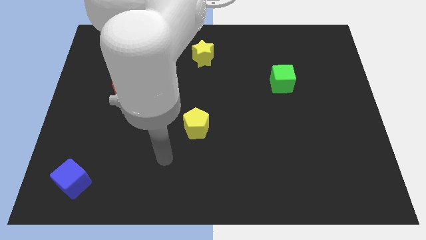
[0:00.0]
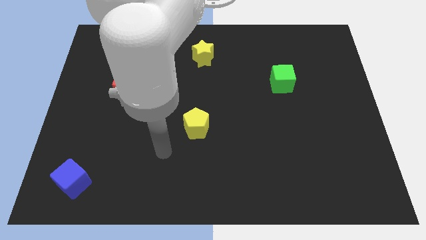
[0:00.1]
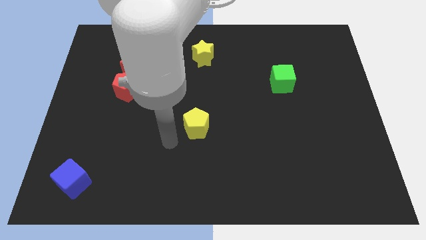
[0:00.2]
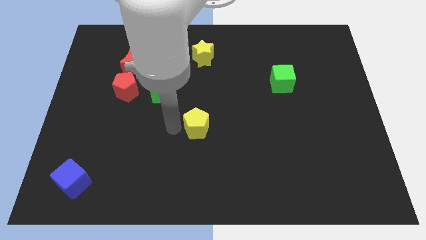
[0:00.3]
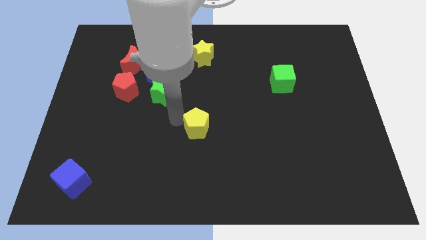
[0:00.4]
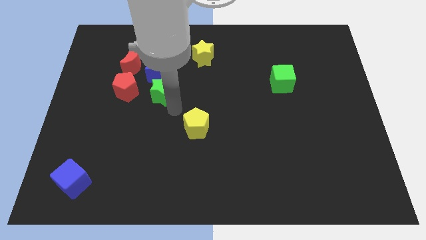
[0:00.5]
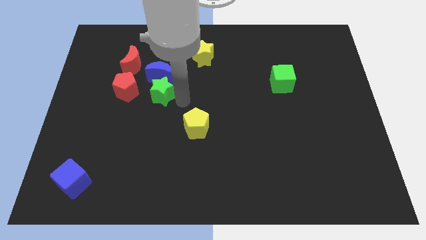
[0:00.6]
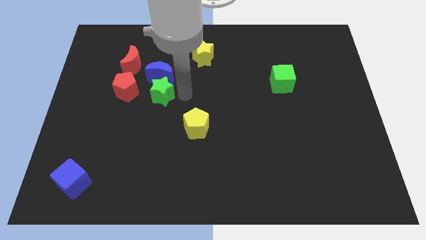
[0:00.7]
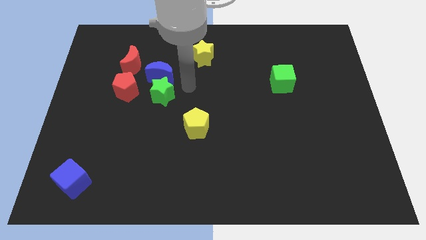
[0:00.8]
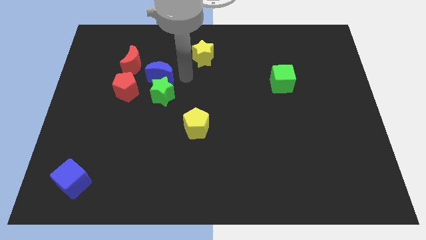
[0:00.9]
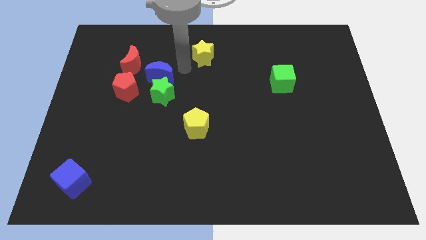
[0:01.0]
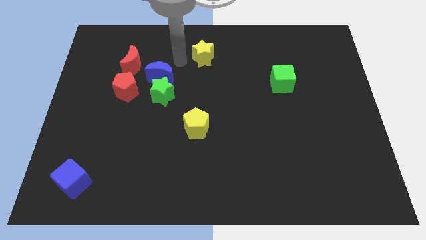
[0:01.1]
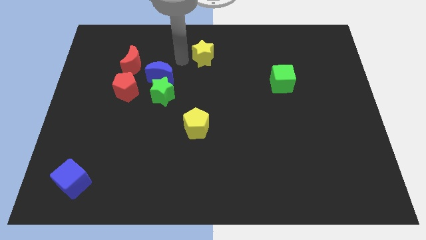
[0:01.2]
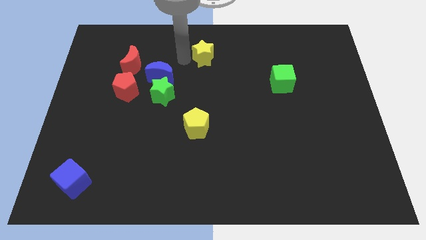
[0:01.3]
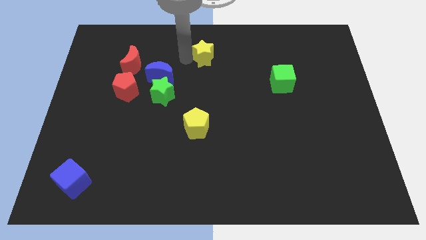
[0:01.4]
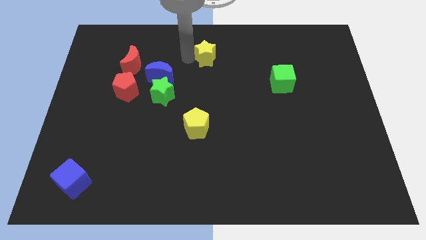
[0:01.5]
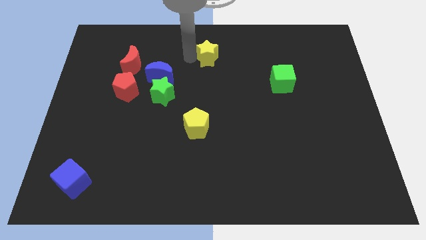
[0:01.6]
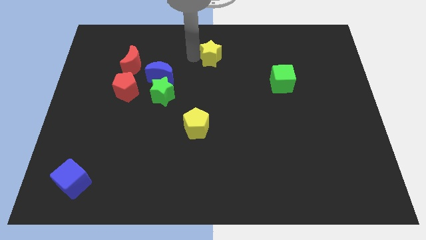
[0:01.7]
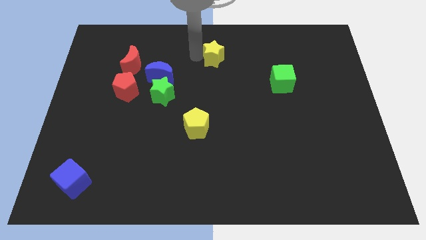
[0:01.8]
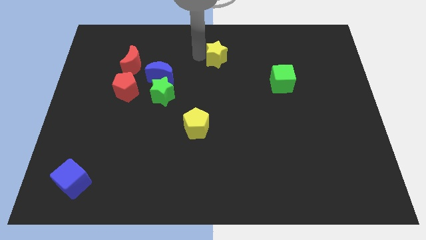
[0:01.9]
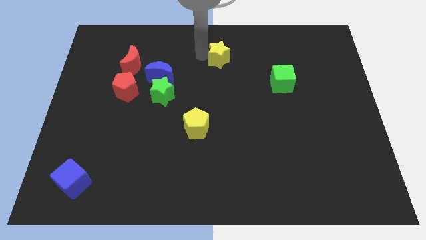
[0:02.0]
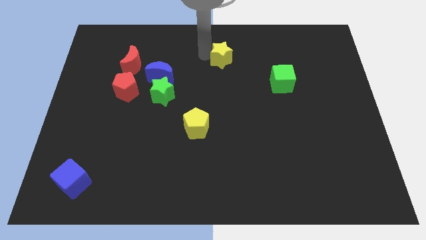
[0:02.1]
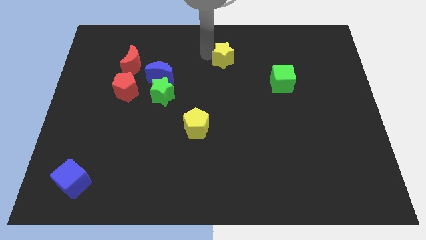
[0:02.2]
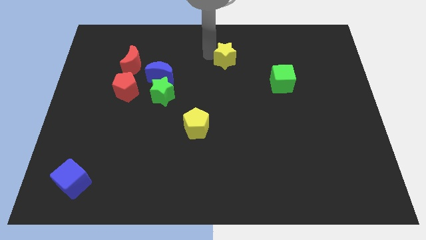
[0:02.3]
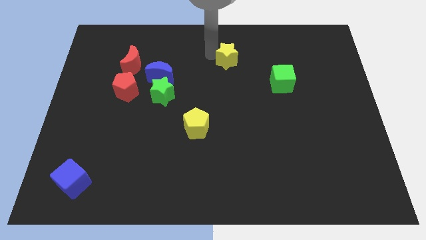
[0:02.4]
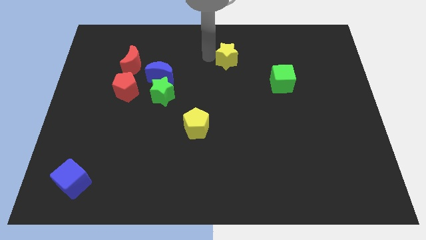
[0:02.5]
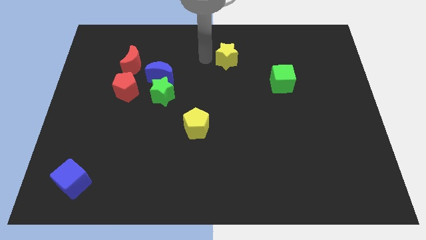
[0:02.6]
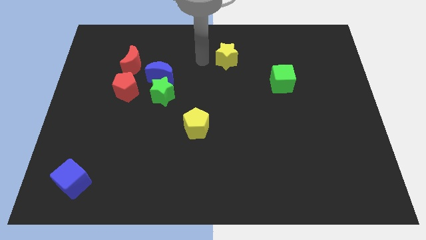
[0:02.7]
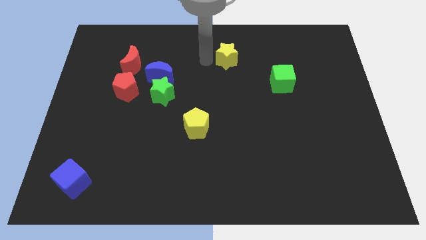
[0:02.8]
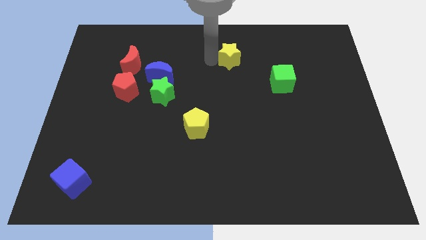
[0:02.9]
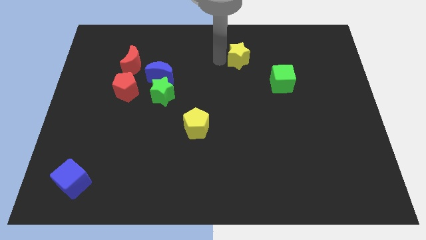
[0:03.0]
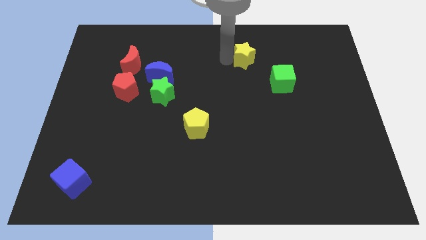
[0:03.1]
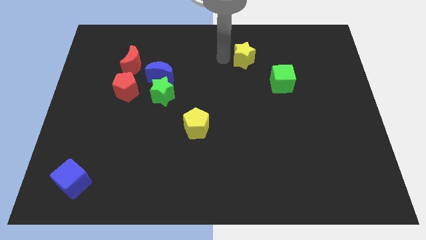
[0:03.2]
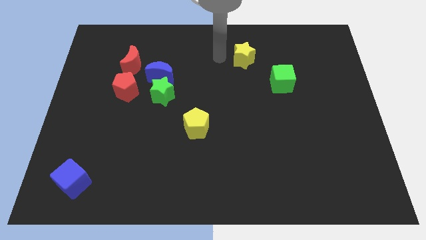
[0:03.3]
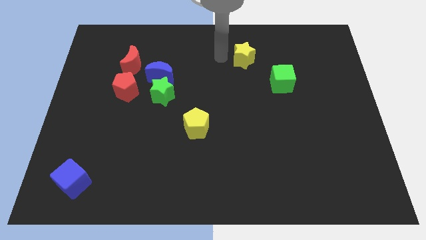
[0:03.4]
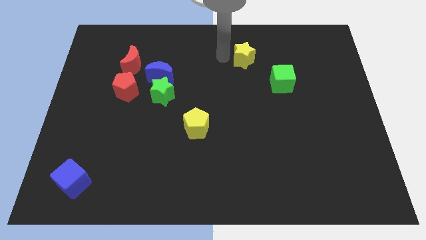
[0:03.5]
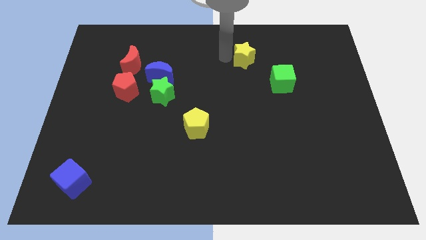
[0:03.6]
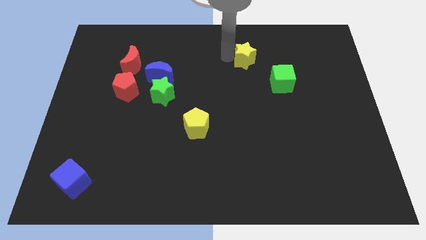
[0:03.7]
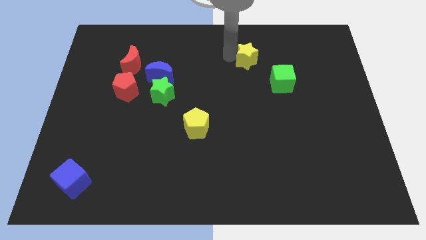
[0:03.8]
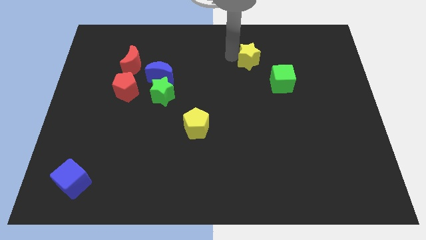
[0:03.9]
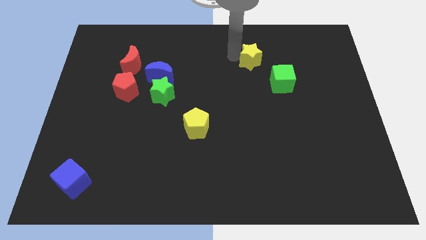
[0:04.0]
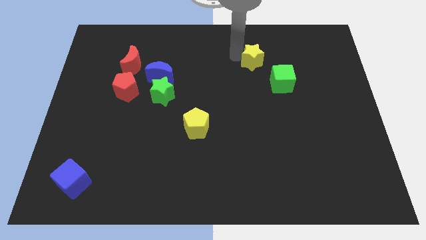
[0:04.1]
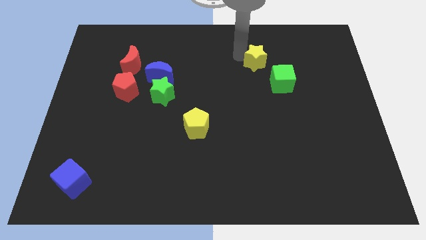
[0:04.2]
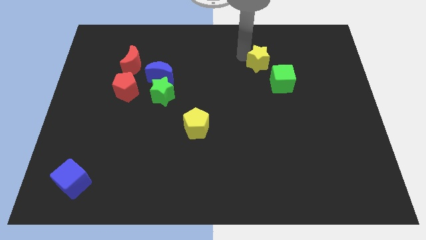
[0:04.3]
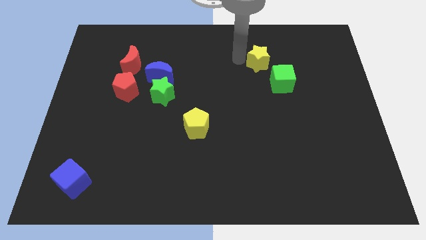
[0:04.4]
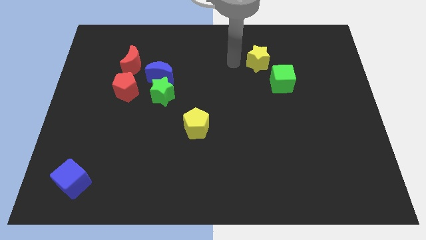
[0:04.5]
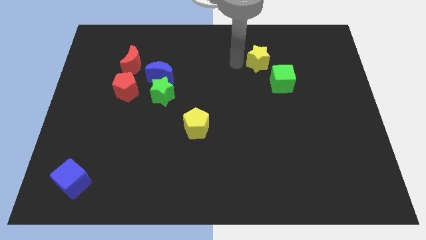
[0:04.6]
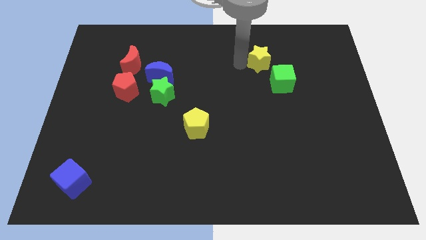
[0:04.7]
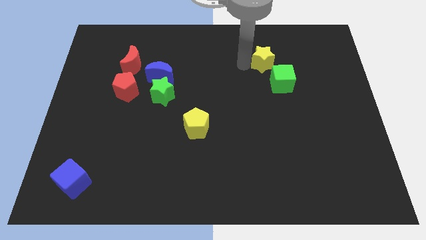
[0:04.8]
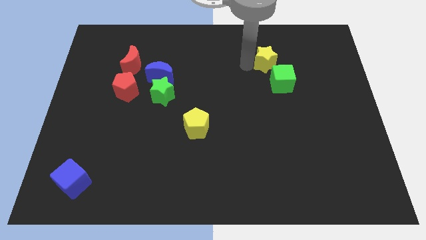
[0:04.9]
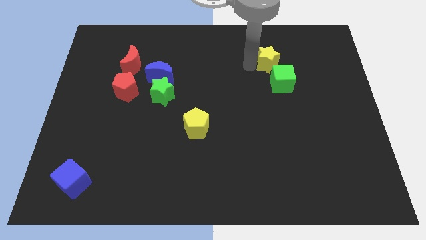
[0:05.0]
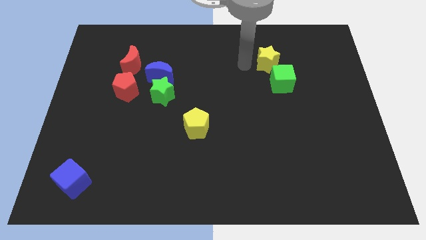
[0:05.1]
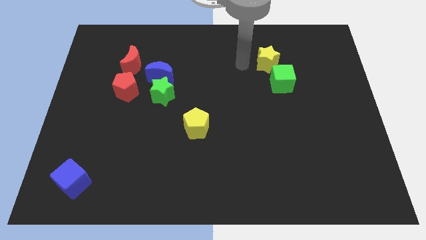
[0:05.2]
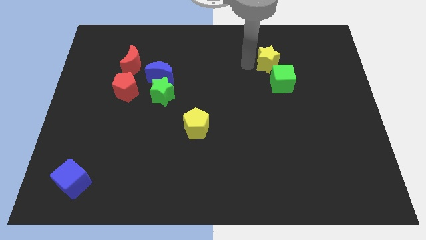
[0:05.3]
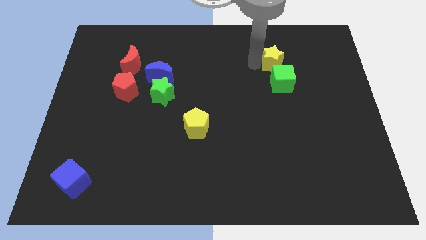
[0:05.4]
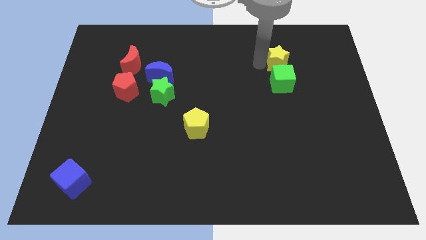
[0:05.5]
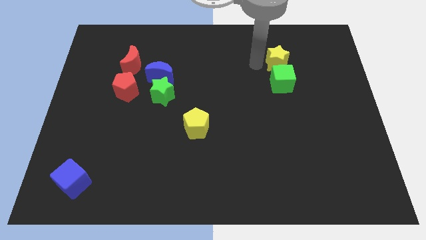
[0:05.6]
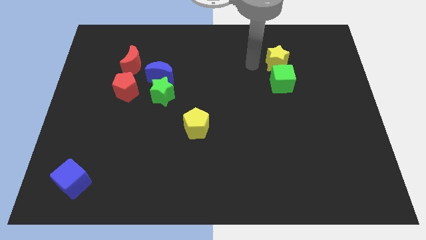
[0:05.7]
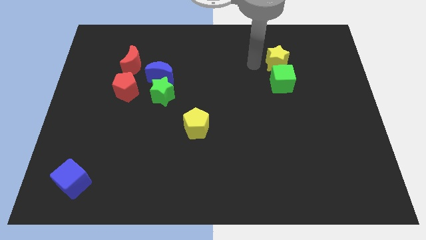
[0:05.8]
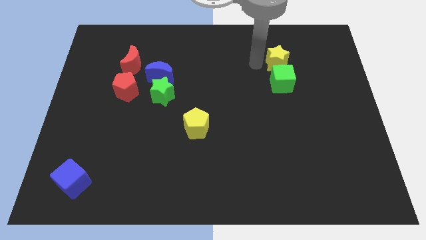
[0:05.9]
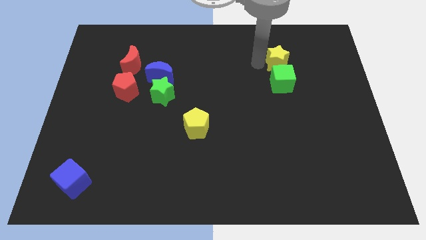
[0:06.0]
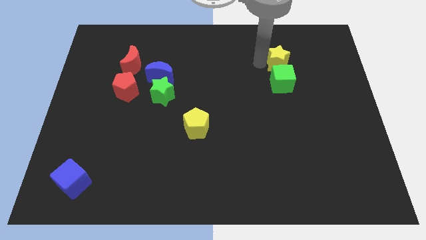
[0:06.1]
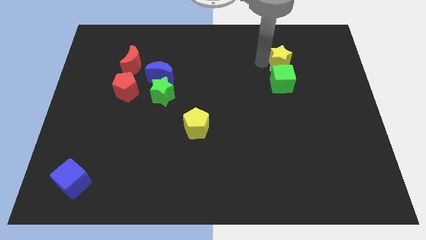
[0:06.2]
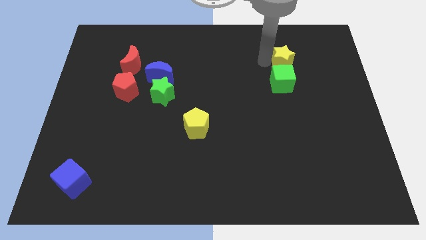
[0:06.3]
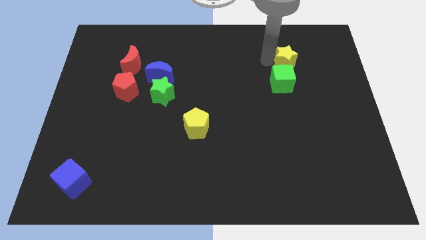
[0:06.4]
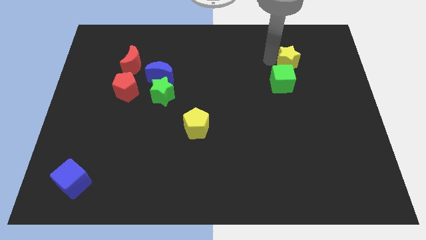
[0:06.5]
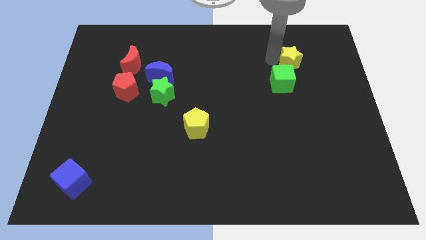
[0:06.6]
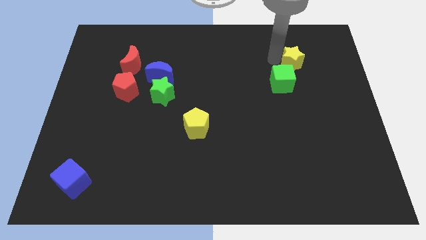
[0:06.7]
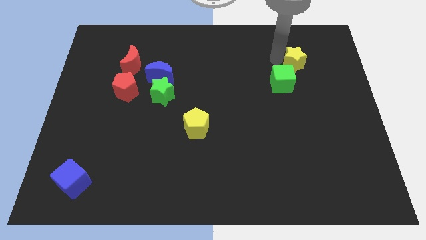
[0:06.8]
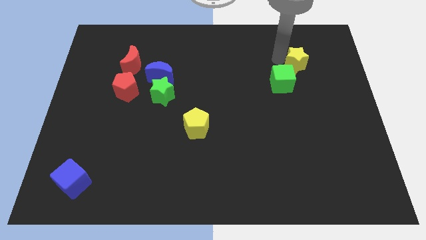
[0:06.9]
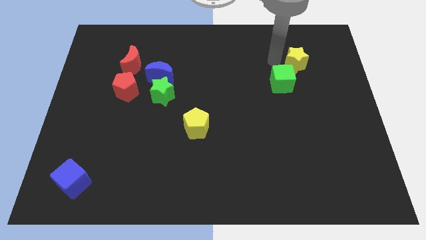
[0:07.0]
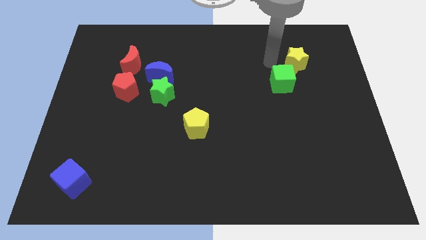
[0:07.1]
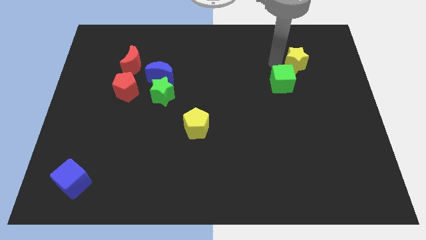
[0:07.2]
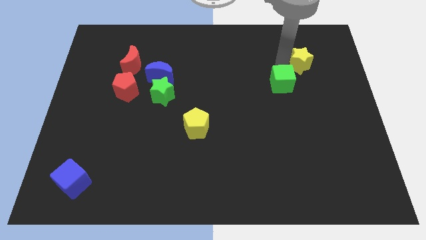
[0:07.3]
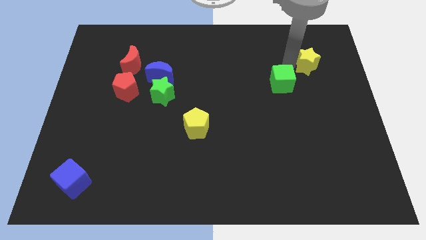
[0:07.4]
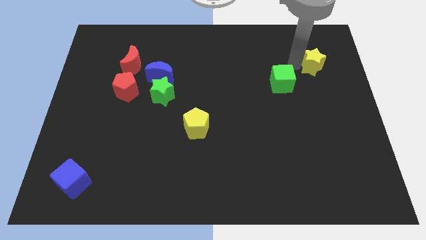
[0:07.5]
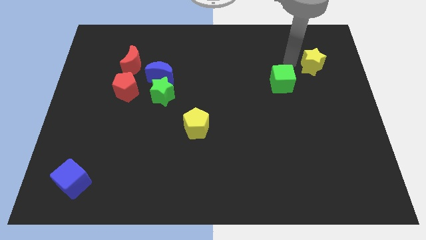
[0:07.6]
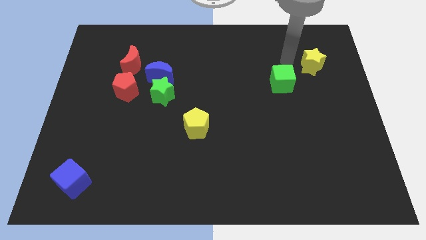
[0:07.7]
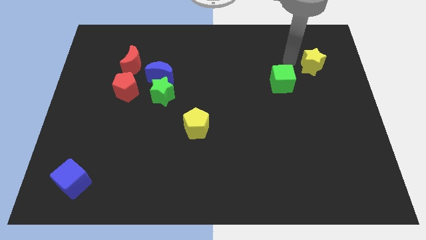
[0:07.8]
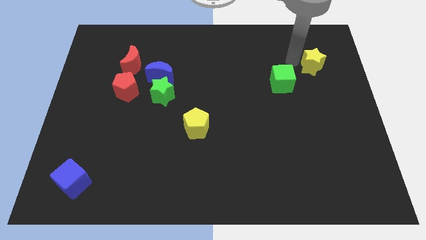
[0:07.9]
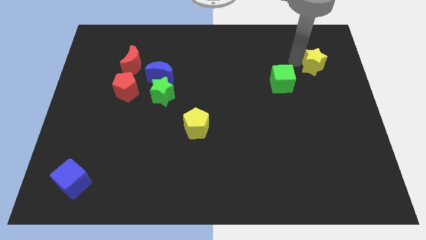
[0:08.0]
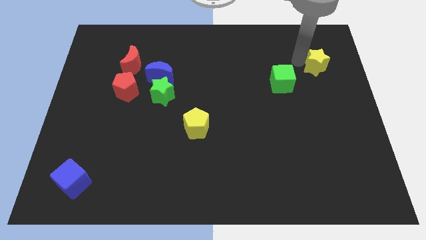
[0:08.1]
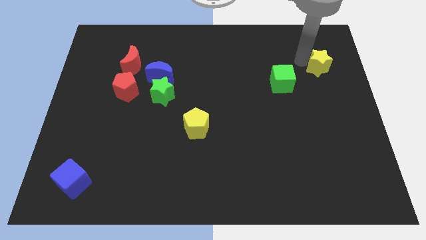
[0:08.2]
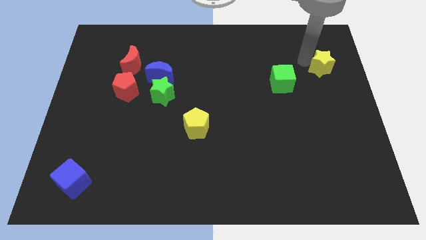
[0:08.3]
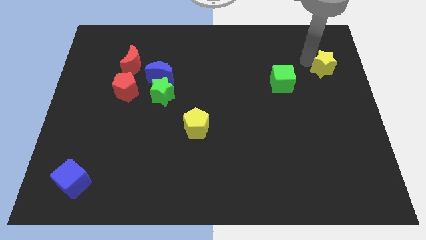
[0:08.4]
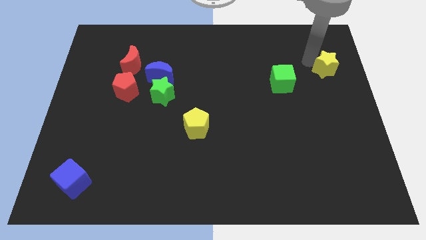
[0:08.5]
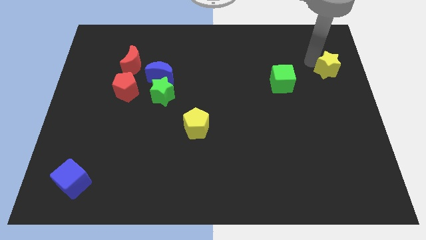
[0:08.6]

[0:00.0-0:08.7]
move the yellow star to the center right
